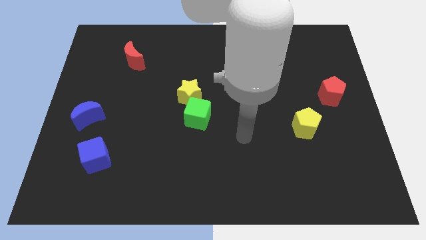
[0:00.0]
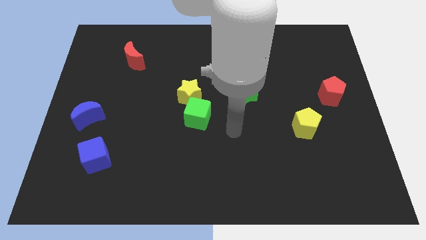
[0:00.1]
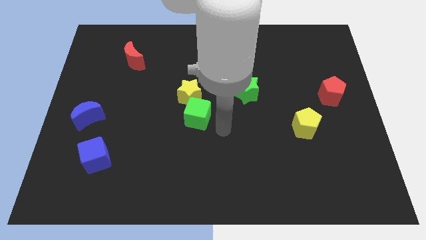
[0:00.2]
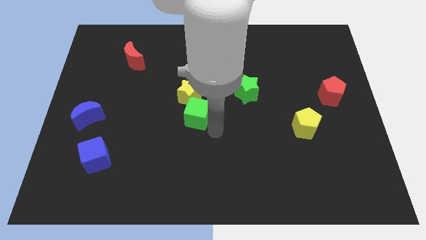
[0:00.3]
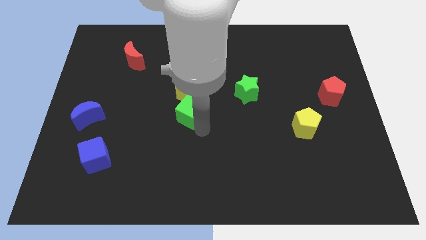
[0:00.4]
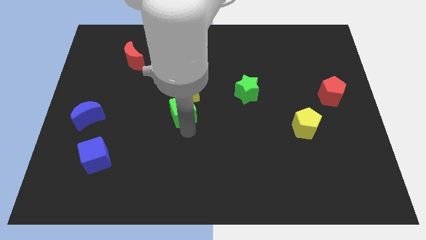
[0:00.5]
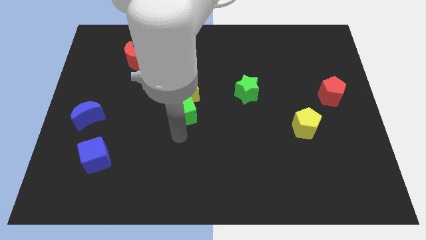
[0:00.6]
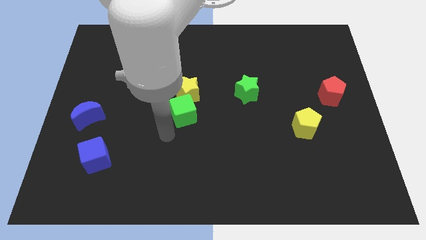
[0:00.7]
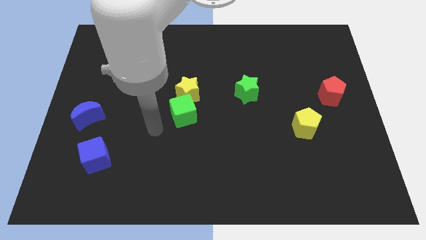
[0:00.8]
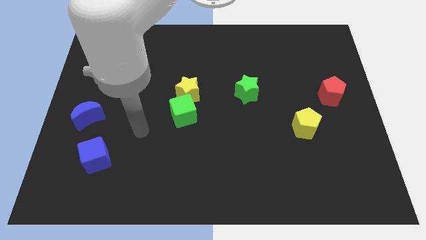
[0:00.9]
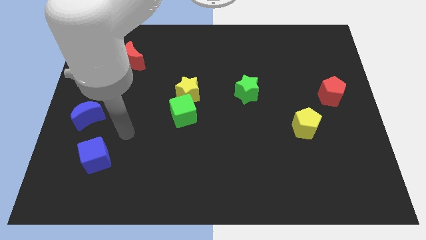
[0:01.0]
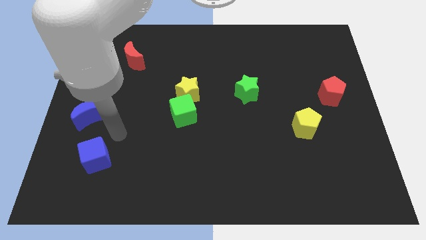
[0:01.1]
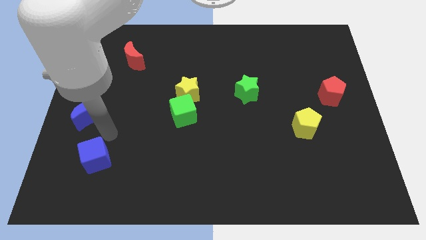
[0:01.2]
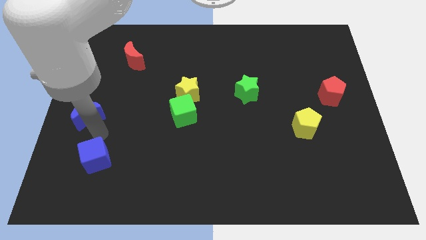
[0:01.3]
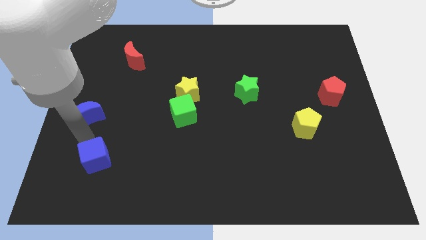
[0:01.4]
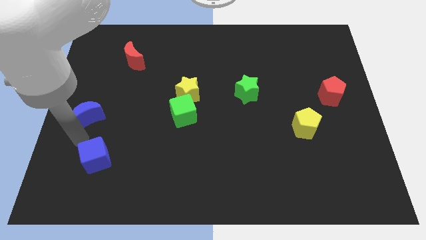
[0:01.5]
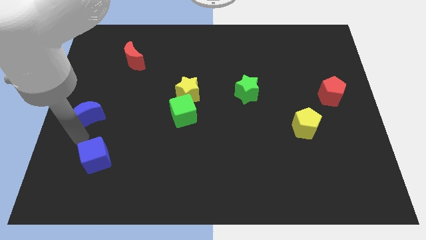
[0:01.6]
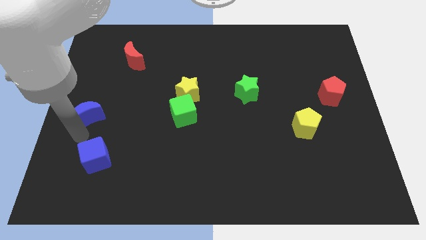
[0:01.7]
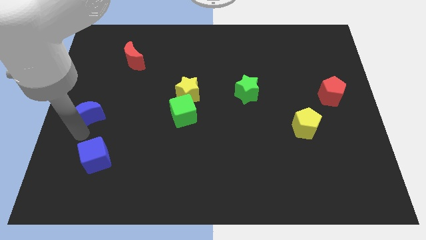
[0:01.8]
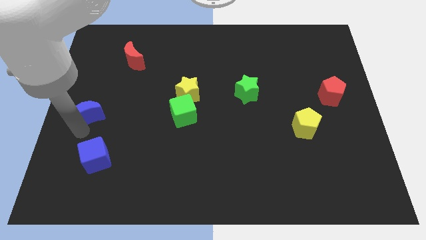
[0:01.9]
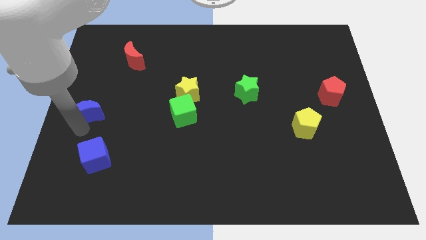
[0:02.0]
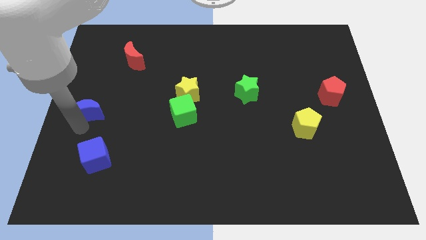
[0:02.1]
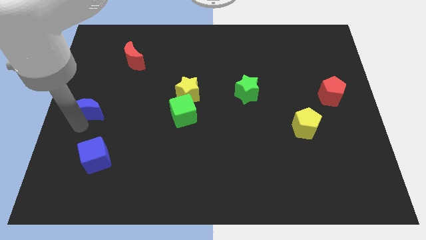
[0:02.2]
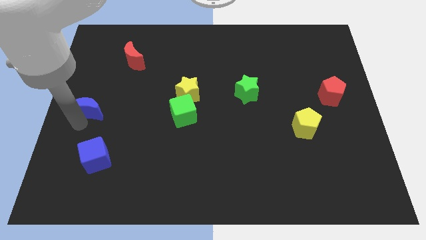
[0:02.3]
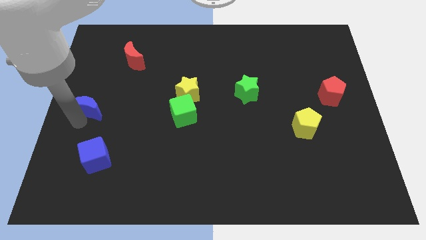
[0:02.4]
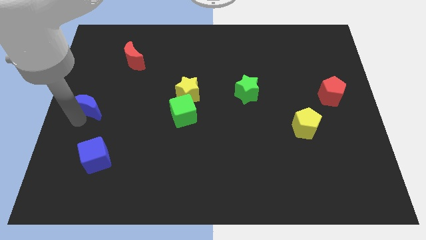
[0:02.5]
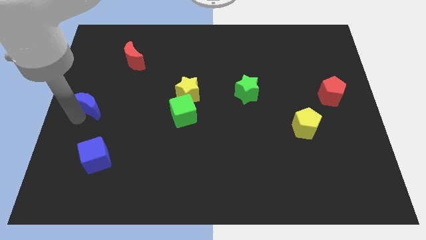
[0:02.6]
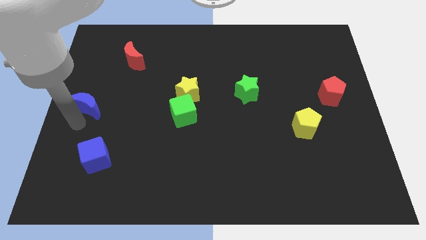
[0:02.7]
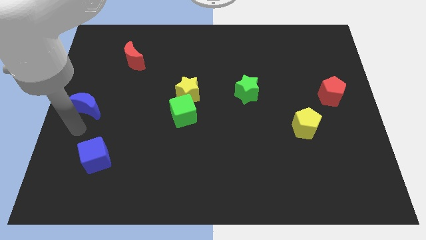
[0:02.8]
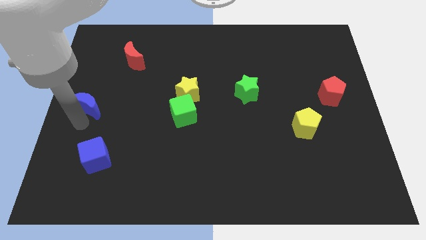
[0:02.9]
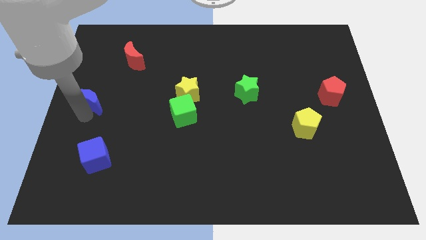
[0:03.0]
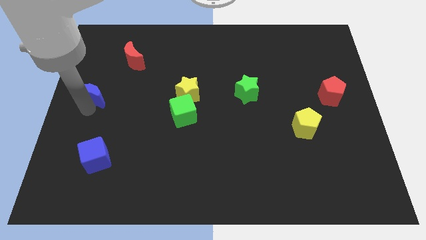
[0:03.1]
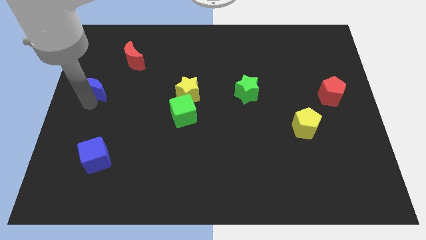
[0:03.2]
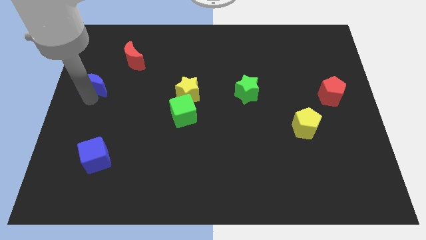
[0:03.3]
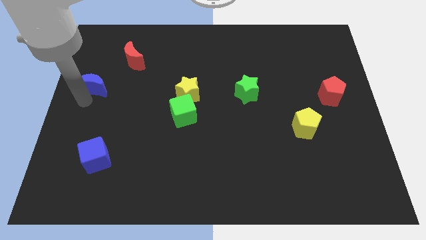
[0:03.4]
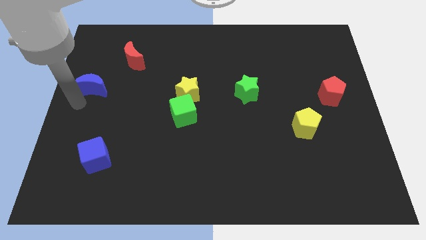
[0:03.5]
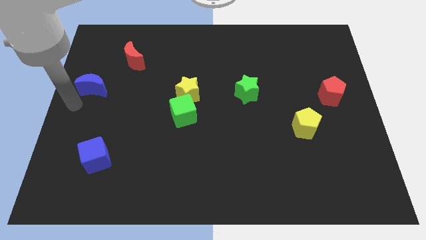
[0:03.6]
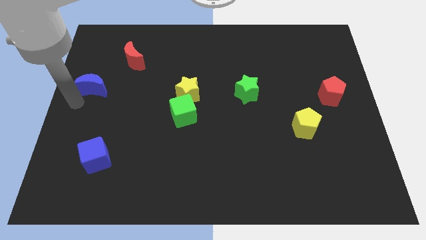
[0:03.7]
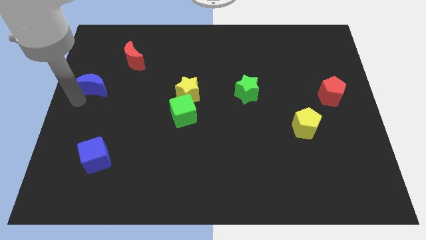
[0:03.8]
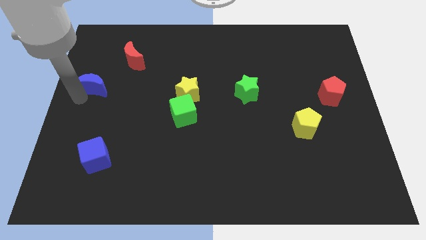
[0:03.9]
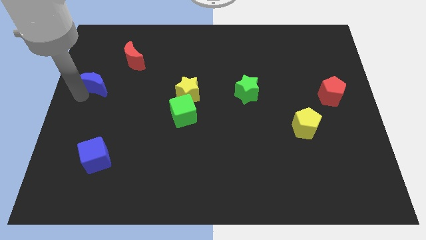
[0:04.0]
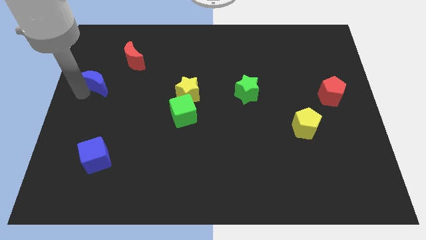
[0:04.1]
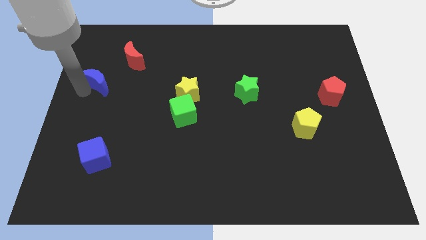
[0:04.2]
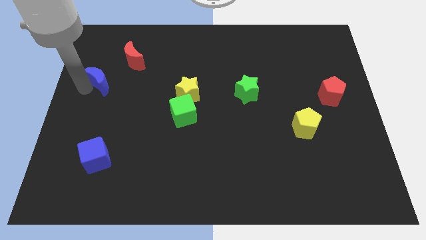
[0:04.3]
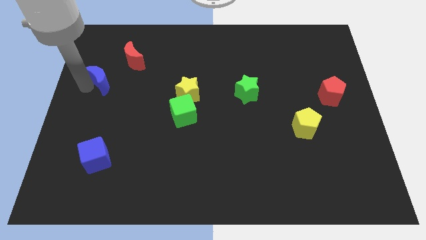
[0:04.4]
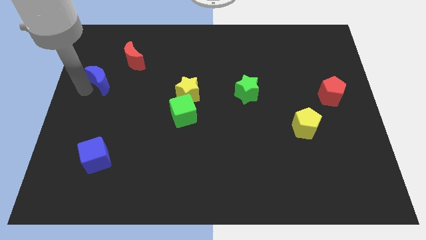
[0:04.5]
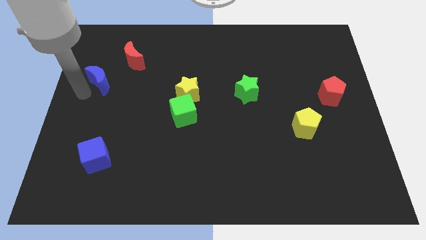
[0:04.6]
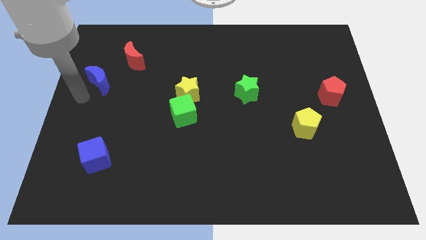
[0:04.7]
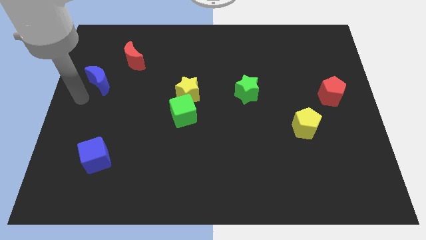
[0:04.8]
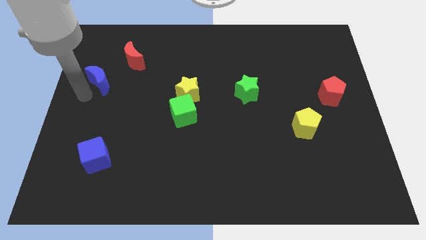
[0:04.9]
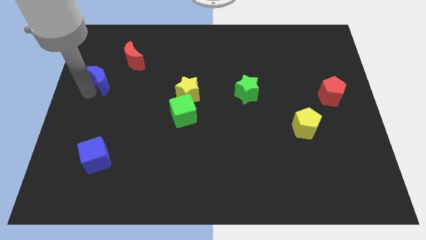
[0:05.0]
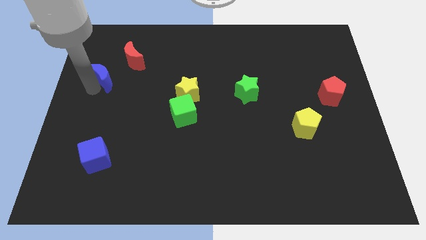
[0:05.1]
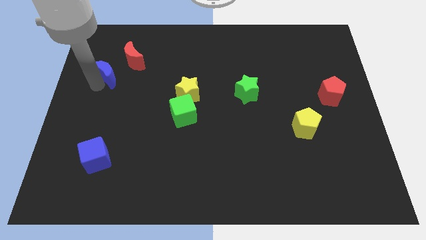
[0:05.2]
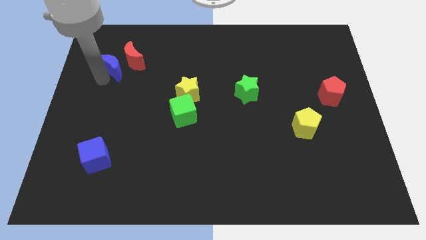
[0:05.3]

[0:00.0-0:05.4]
push the blue moon towards the red moon

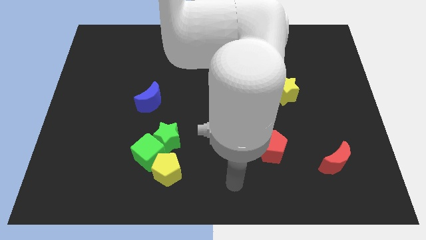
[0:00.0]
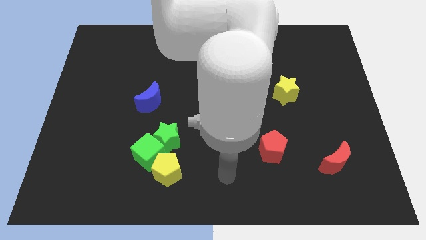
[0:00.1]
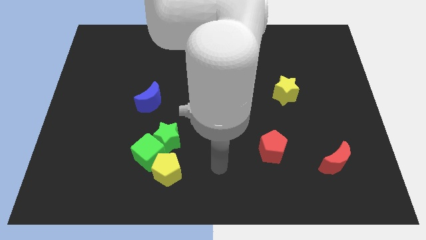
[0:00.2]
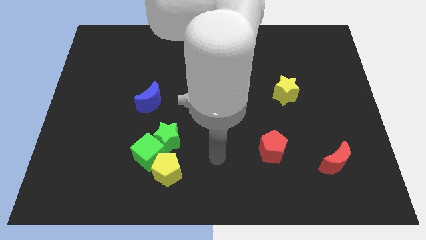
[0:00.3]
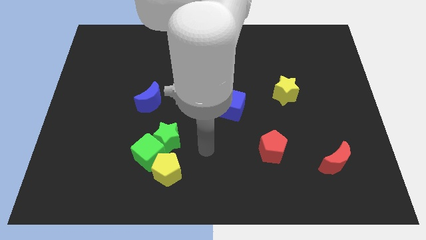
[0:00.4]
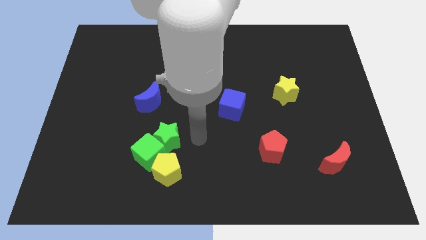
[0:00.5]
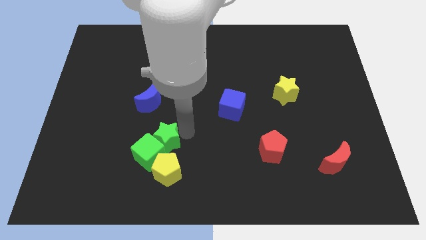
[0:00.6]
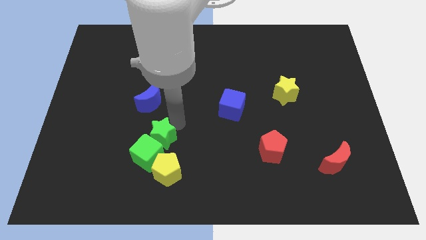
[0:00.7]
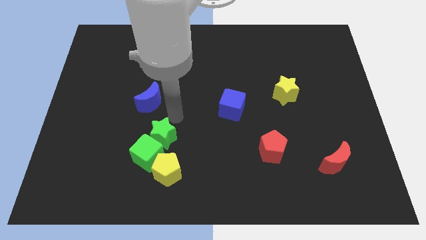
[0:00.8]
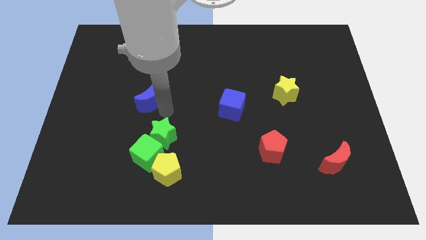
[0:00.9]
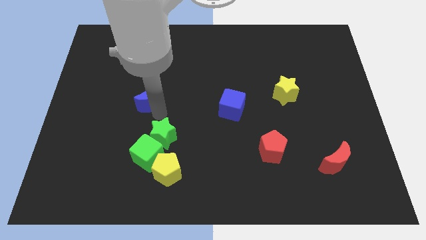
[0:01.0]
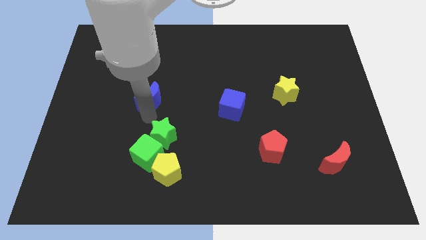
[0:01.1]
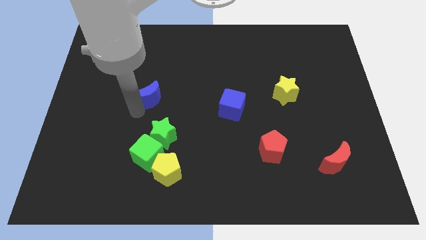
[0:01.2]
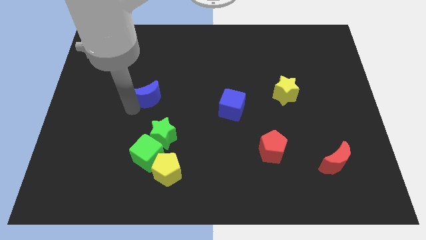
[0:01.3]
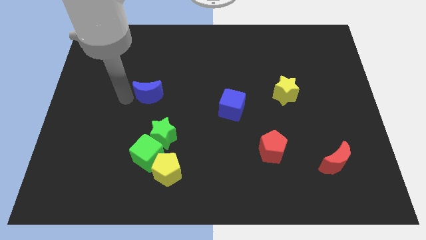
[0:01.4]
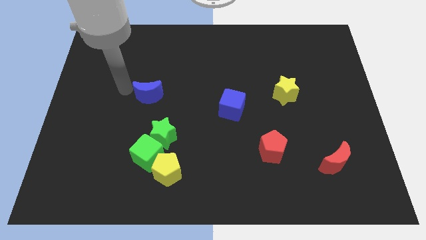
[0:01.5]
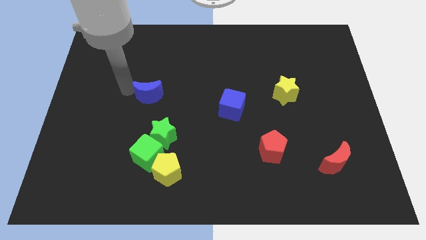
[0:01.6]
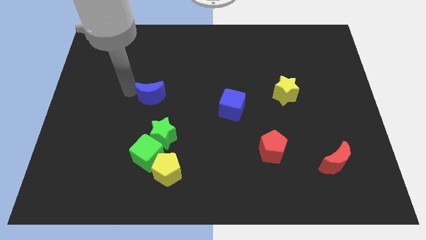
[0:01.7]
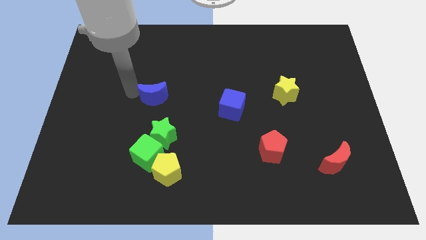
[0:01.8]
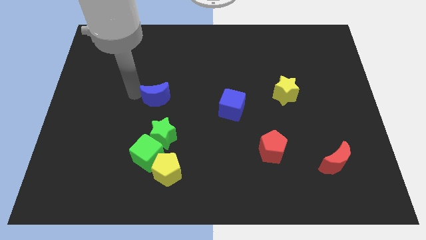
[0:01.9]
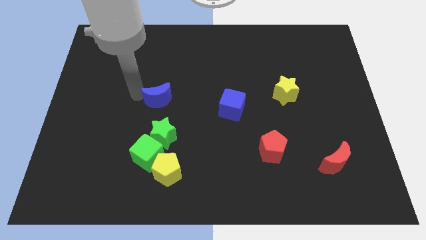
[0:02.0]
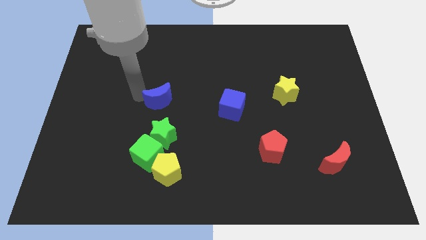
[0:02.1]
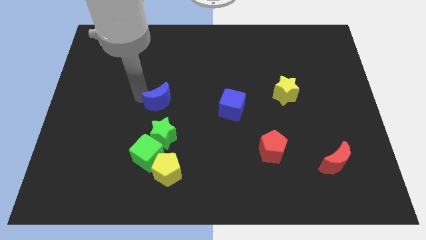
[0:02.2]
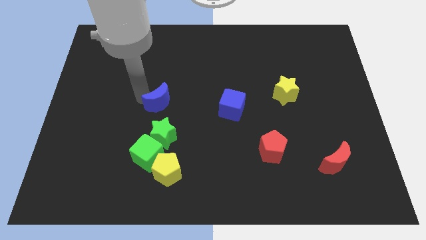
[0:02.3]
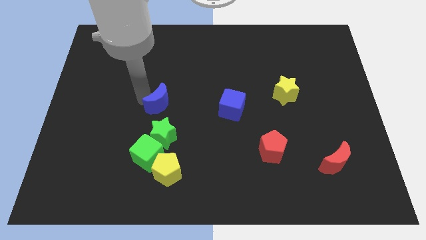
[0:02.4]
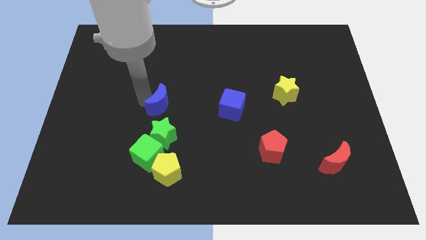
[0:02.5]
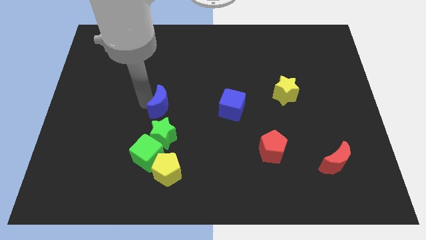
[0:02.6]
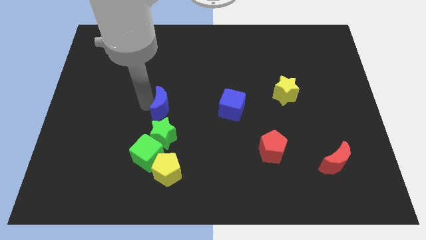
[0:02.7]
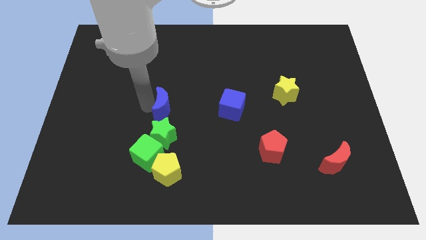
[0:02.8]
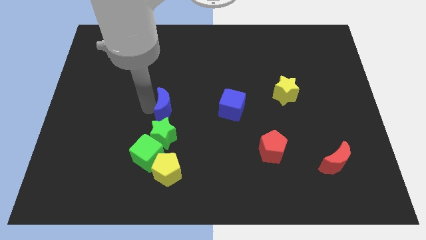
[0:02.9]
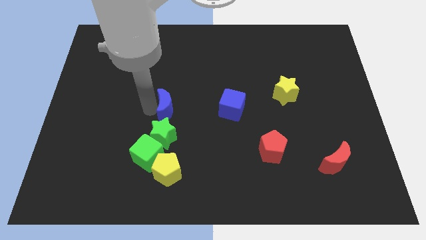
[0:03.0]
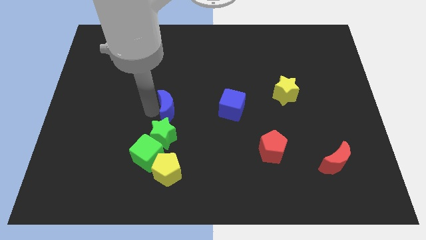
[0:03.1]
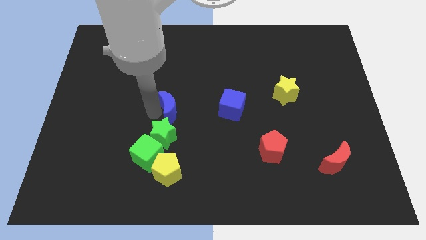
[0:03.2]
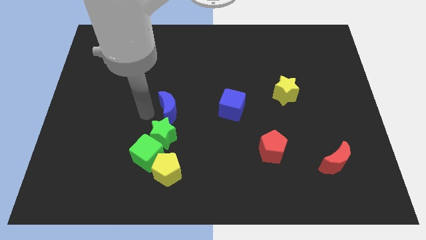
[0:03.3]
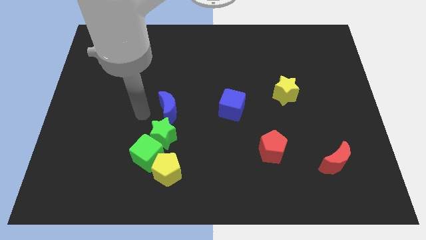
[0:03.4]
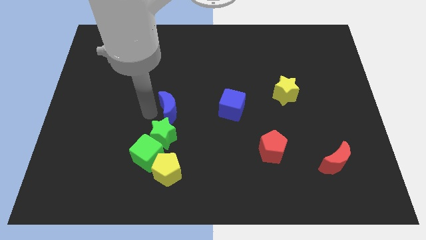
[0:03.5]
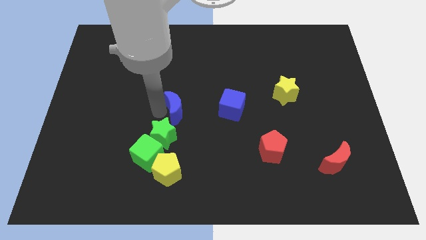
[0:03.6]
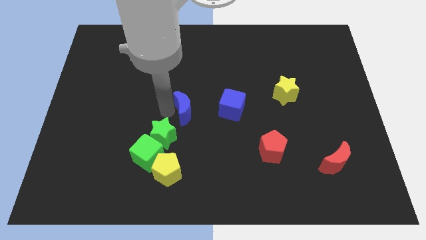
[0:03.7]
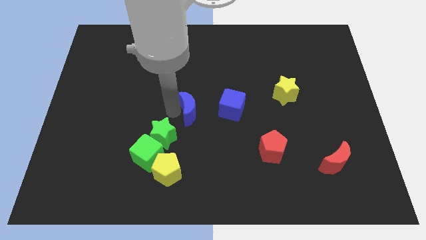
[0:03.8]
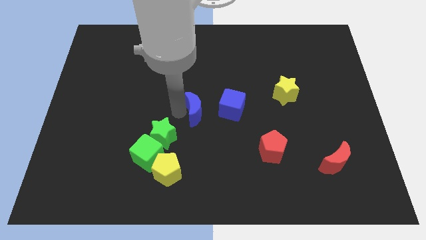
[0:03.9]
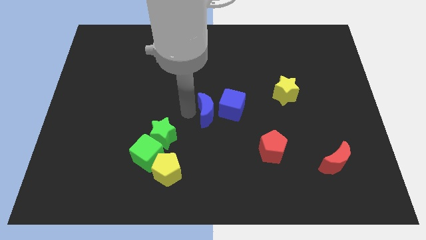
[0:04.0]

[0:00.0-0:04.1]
put the blue moon to the blue cube
